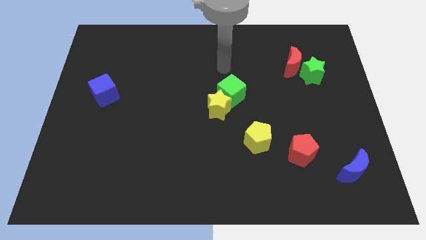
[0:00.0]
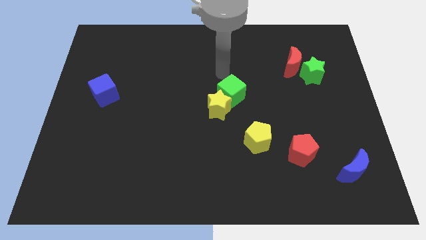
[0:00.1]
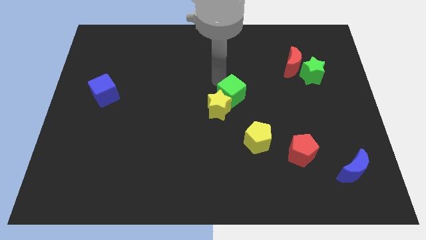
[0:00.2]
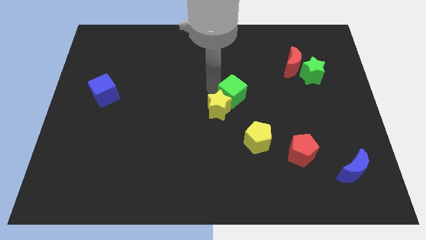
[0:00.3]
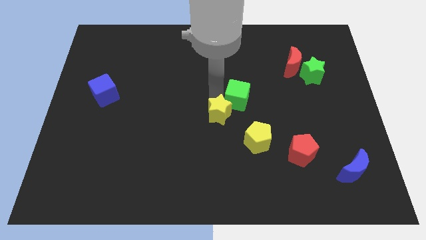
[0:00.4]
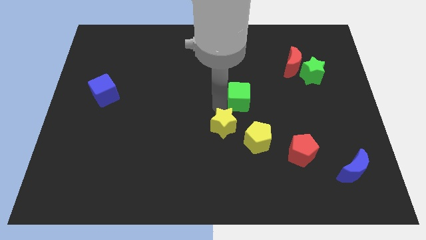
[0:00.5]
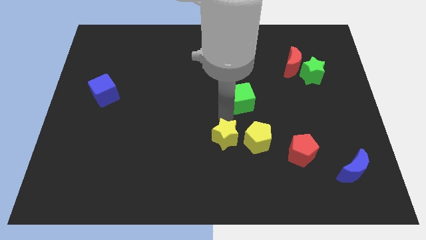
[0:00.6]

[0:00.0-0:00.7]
move the green cube away from the yellow star

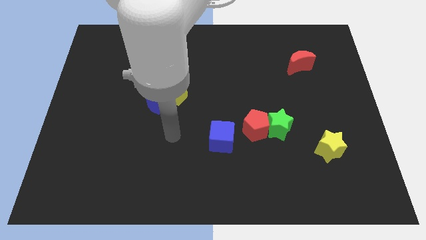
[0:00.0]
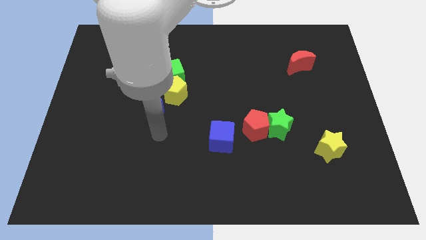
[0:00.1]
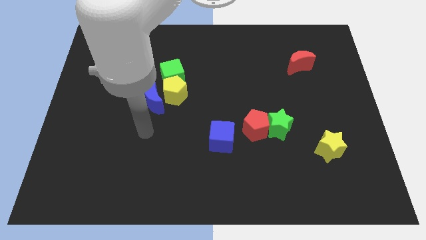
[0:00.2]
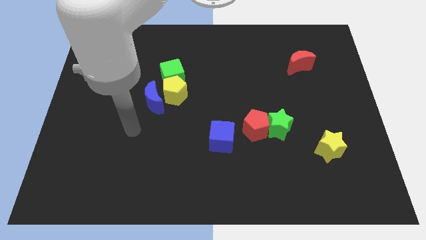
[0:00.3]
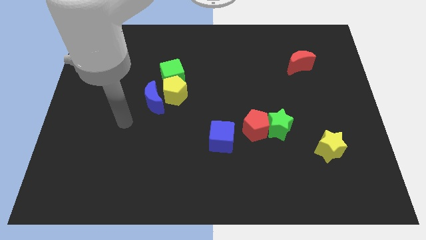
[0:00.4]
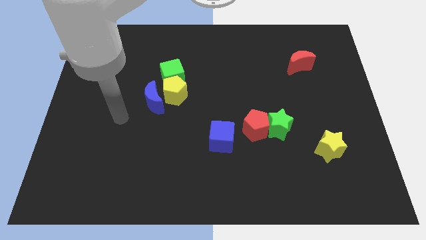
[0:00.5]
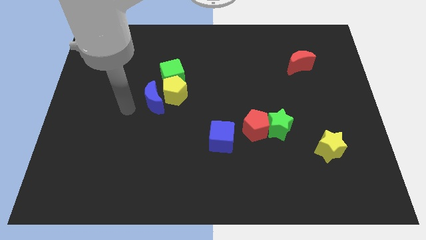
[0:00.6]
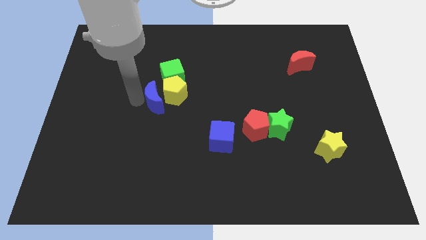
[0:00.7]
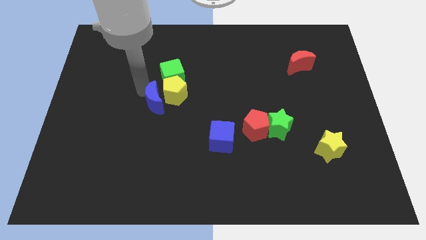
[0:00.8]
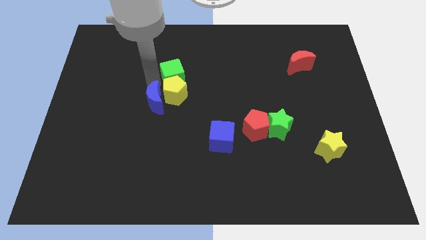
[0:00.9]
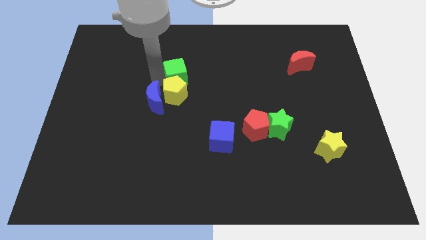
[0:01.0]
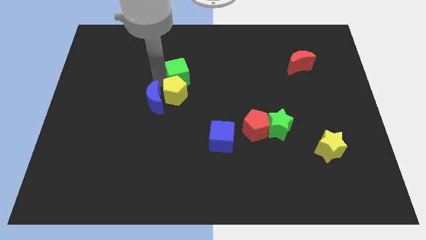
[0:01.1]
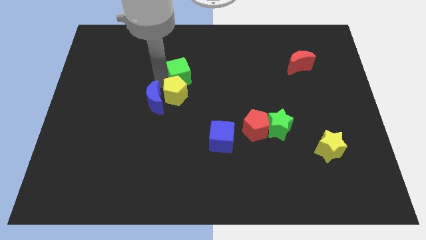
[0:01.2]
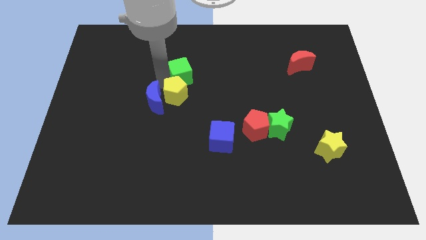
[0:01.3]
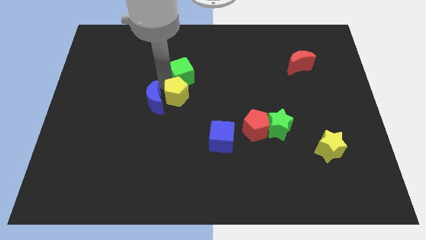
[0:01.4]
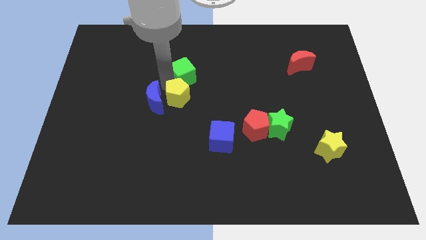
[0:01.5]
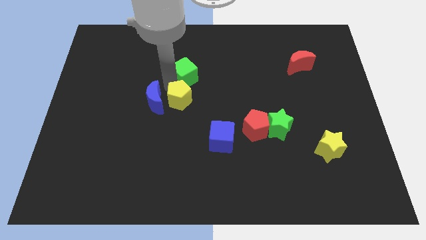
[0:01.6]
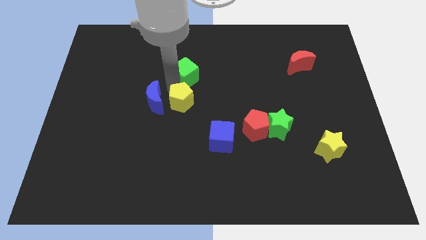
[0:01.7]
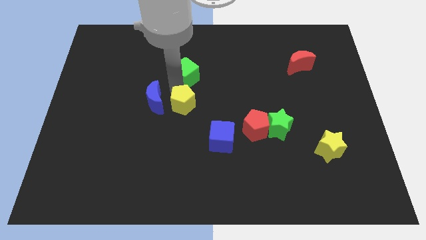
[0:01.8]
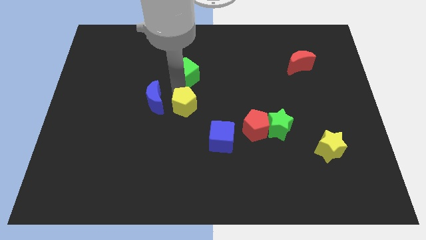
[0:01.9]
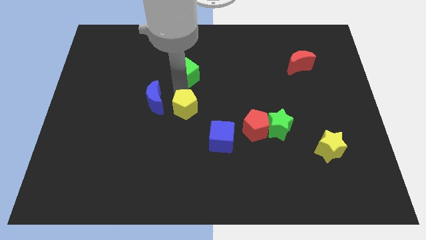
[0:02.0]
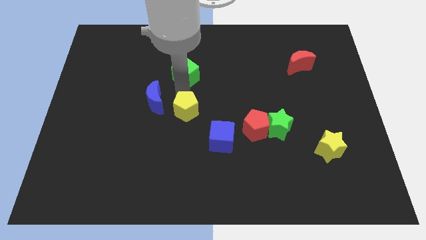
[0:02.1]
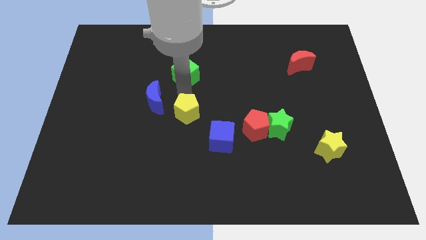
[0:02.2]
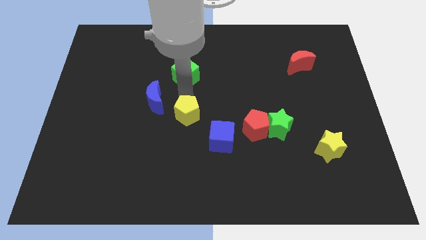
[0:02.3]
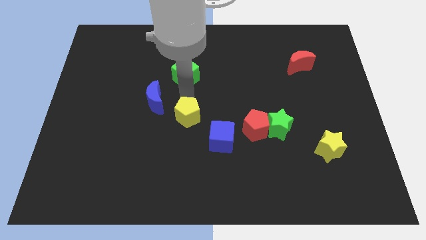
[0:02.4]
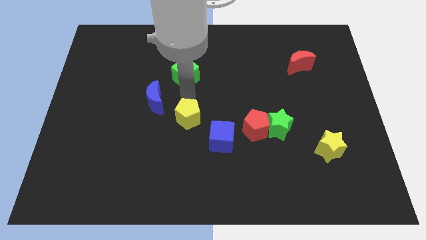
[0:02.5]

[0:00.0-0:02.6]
pull the yellow pentagon apart from the blue moon and green cube

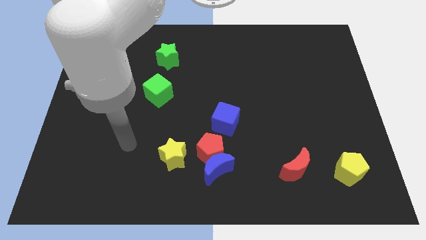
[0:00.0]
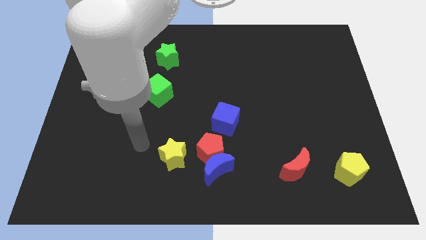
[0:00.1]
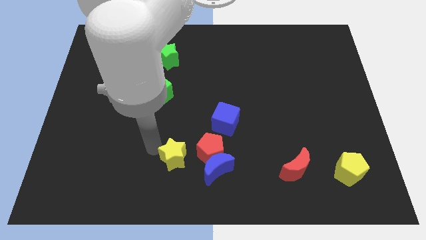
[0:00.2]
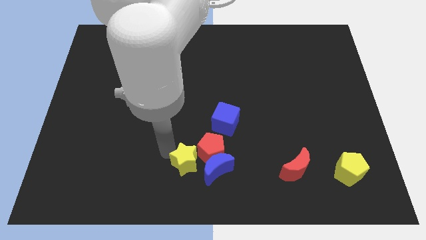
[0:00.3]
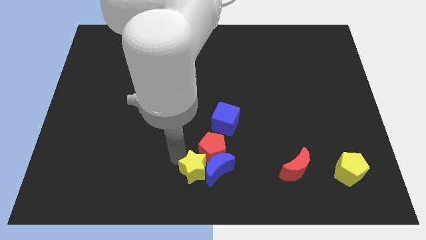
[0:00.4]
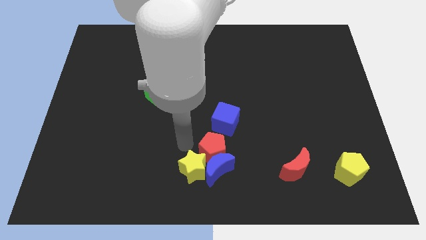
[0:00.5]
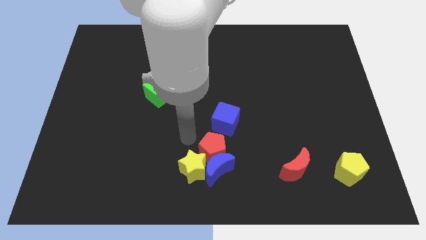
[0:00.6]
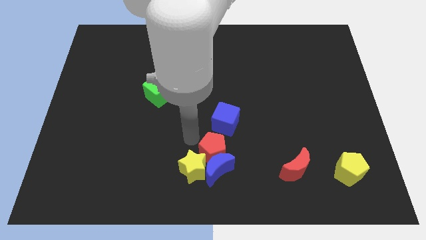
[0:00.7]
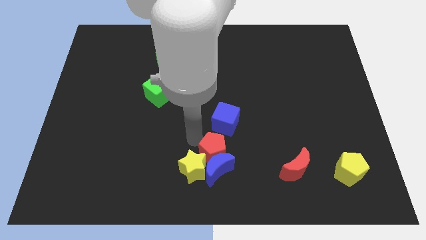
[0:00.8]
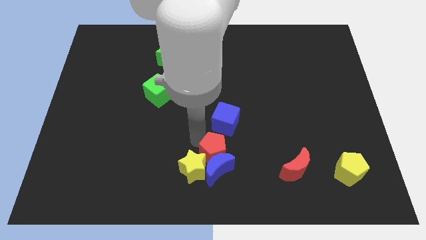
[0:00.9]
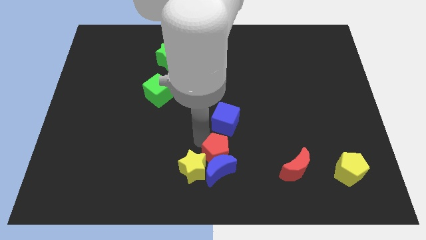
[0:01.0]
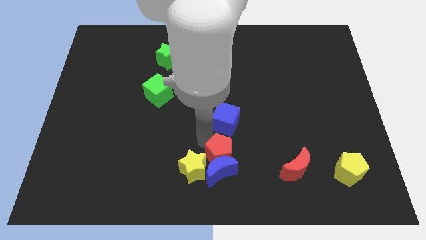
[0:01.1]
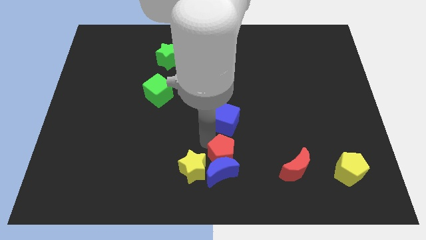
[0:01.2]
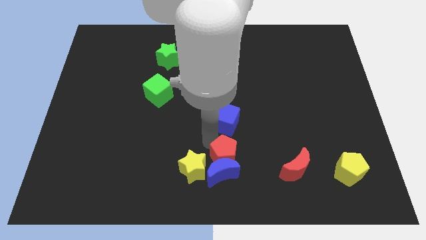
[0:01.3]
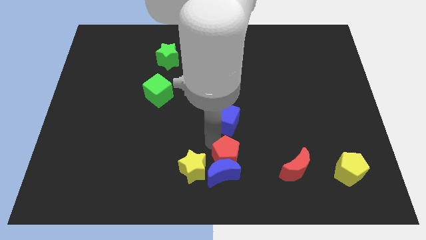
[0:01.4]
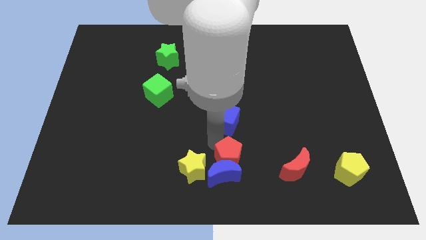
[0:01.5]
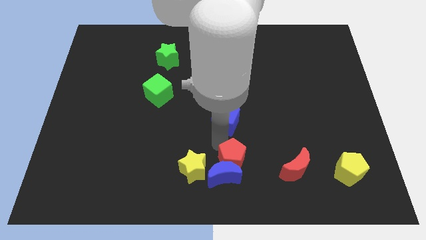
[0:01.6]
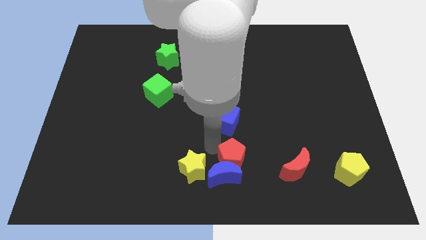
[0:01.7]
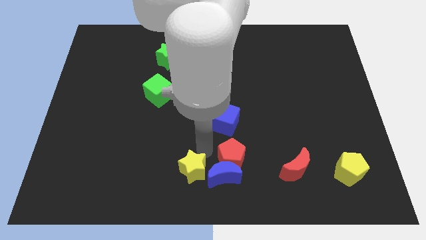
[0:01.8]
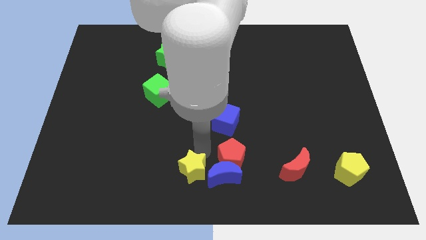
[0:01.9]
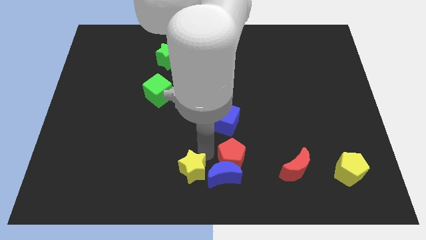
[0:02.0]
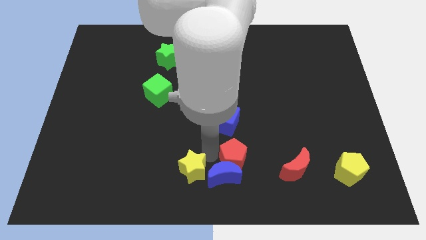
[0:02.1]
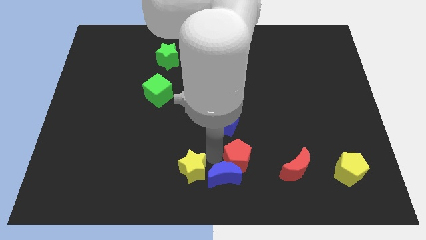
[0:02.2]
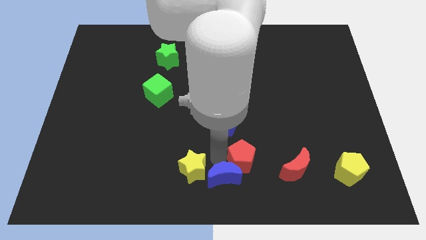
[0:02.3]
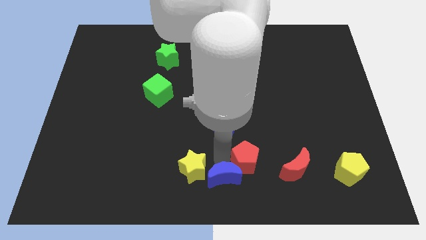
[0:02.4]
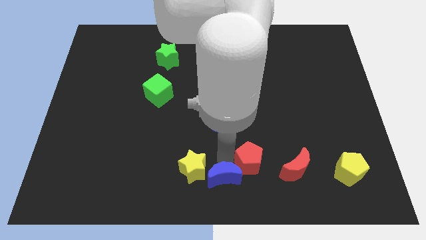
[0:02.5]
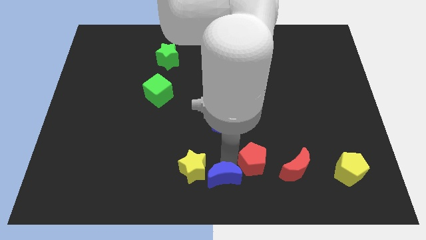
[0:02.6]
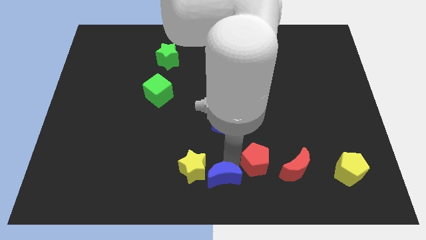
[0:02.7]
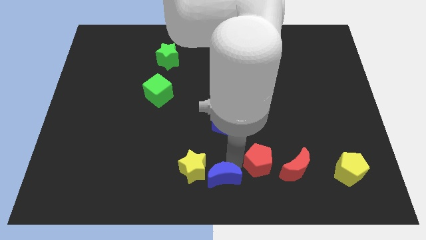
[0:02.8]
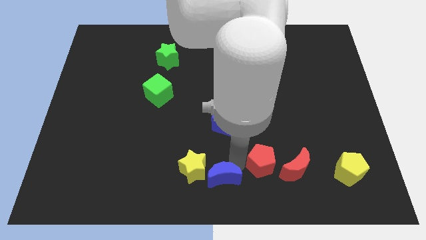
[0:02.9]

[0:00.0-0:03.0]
separate the red pentagon from the clump

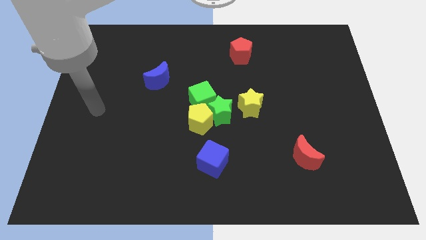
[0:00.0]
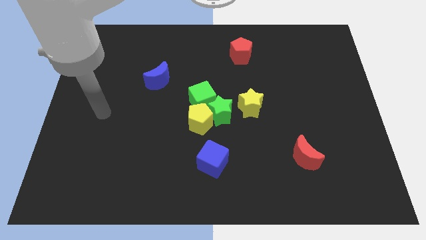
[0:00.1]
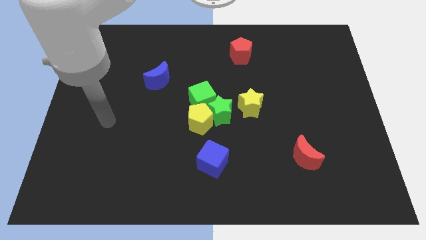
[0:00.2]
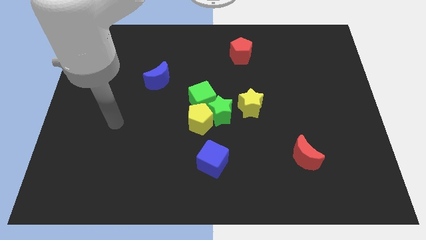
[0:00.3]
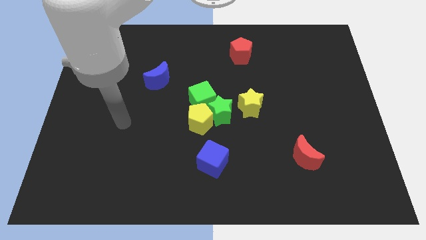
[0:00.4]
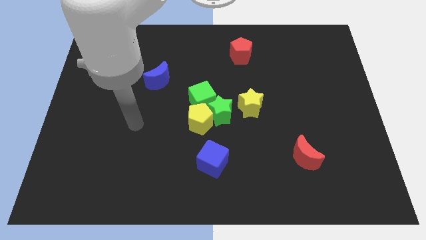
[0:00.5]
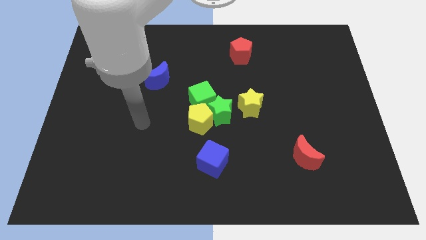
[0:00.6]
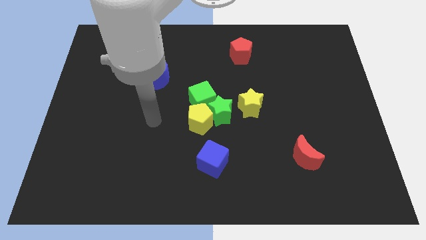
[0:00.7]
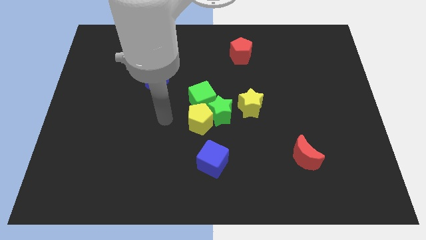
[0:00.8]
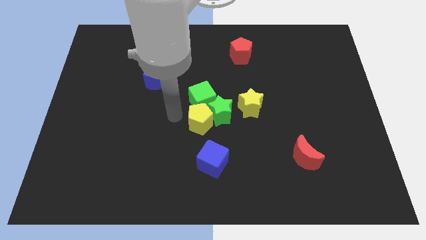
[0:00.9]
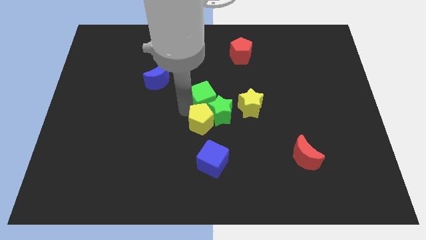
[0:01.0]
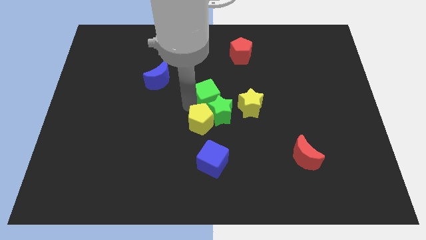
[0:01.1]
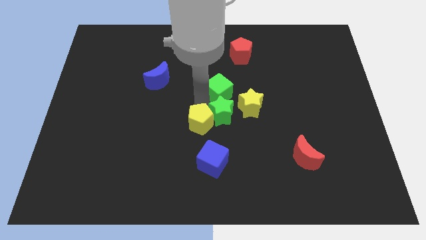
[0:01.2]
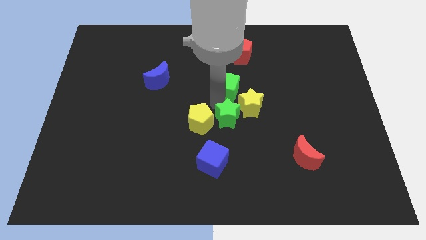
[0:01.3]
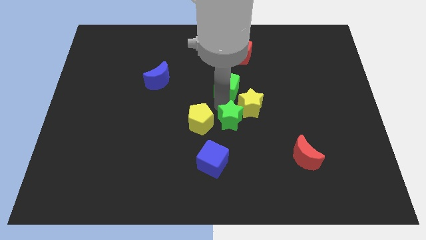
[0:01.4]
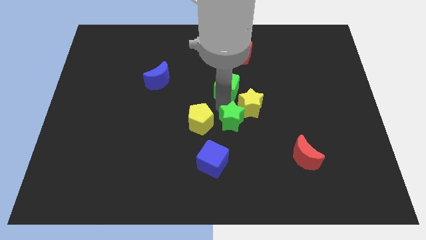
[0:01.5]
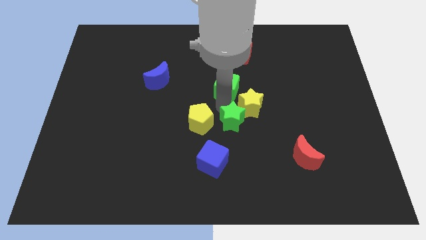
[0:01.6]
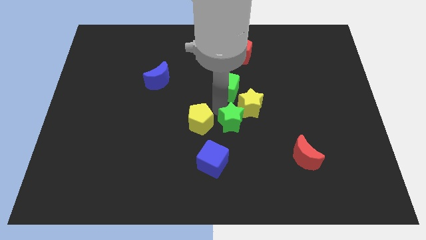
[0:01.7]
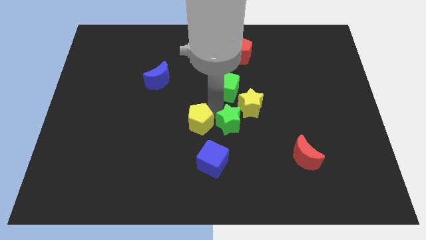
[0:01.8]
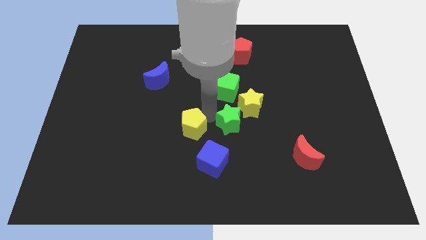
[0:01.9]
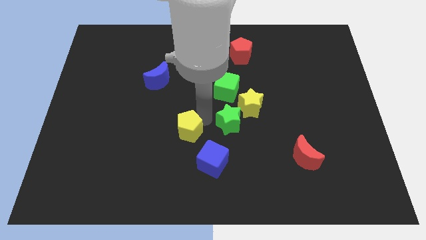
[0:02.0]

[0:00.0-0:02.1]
separate the yellow pentagon from the green star and green cube

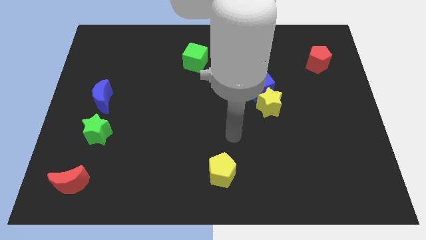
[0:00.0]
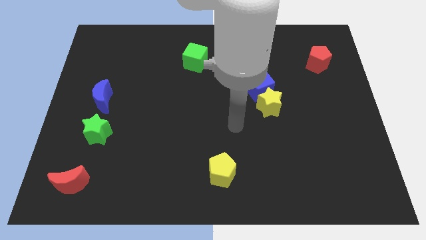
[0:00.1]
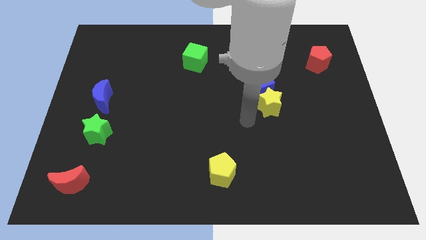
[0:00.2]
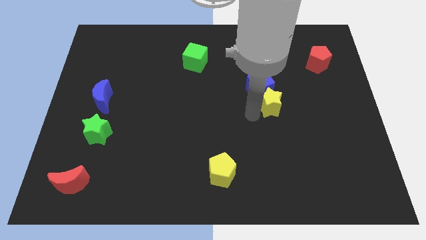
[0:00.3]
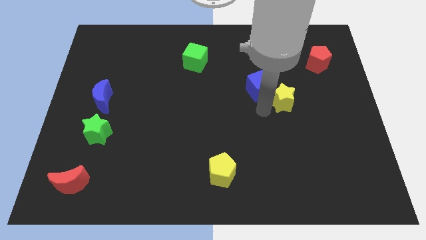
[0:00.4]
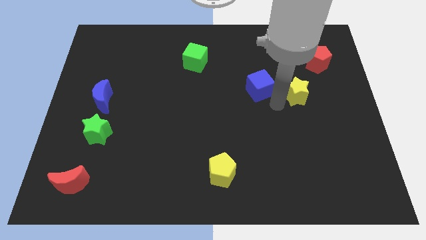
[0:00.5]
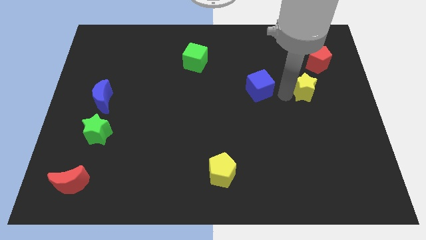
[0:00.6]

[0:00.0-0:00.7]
move the blue cube away from the yellow star

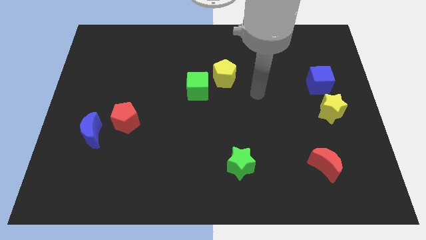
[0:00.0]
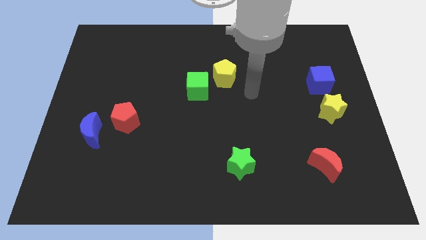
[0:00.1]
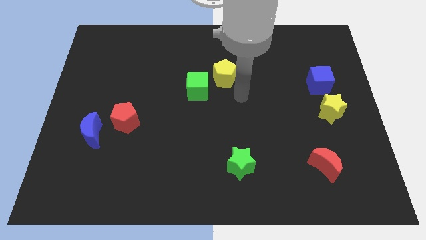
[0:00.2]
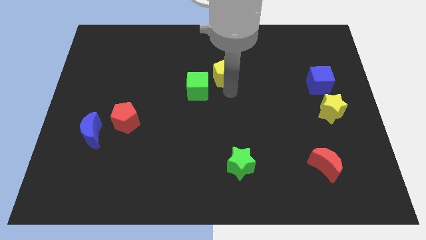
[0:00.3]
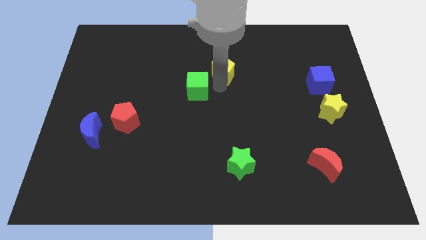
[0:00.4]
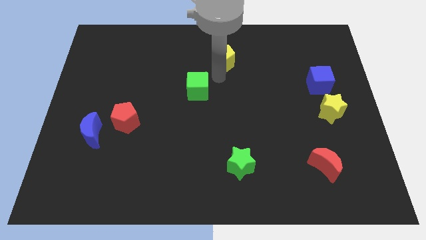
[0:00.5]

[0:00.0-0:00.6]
pull the green cube apart from the yellow pentagon
